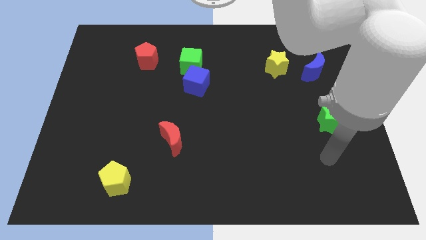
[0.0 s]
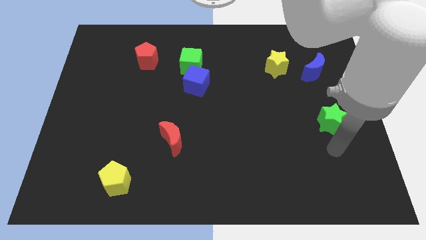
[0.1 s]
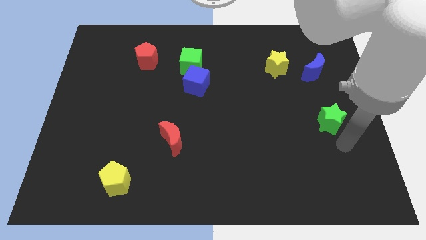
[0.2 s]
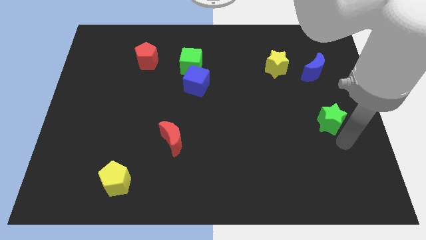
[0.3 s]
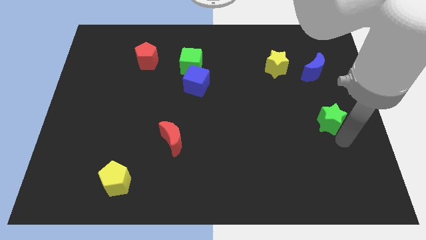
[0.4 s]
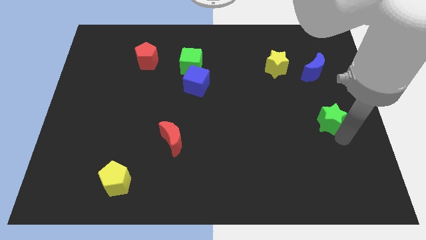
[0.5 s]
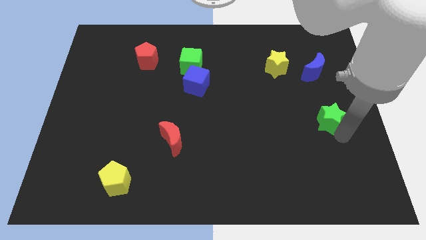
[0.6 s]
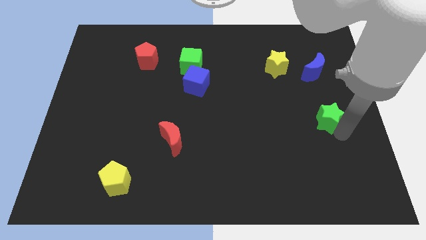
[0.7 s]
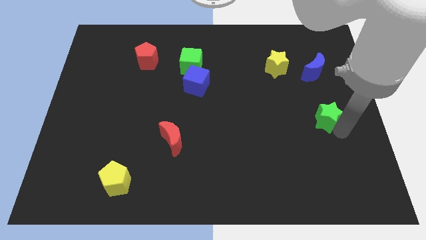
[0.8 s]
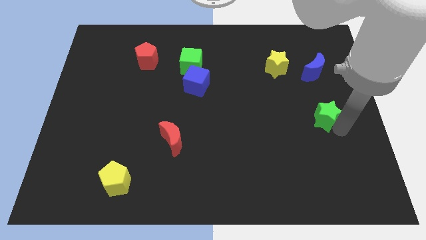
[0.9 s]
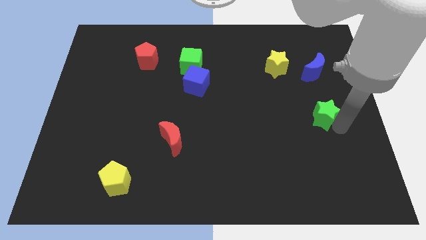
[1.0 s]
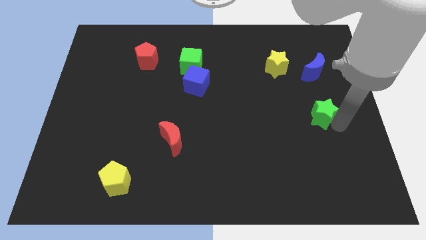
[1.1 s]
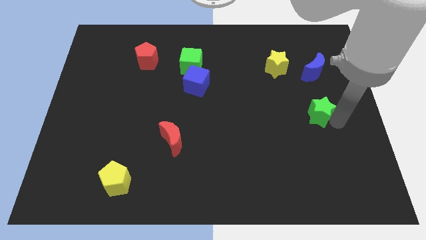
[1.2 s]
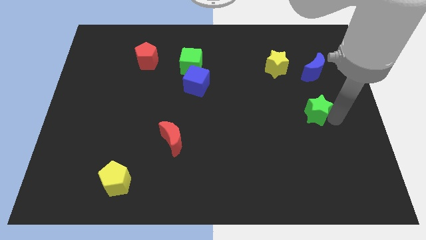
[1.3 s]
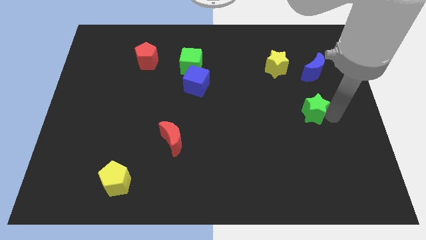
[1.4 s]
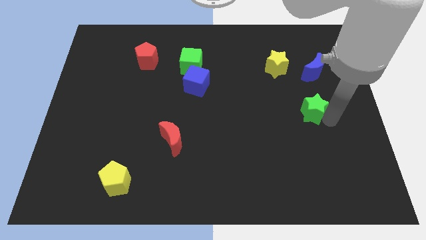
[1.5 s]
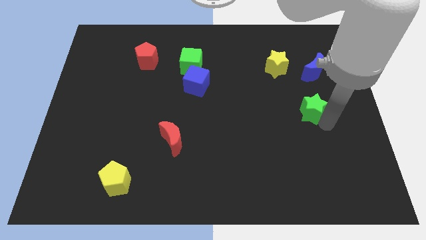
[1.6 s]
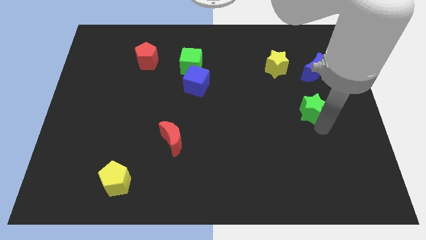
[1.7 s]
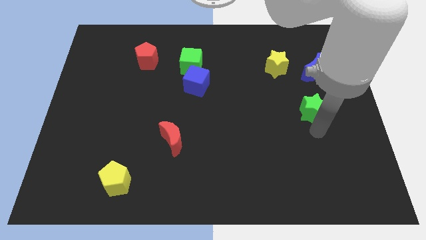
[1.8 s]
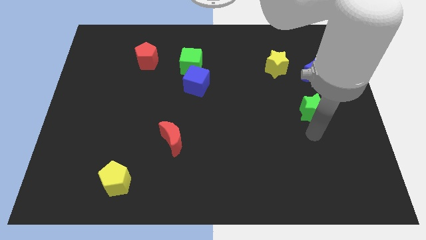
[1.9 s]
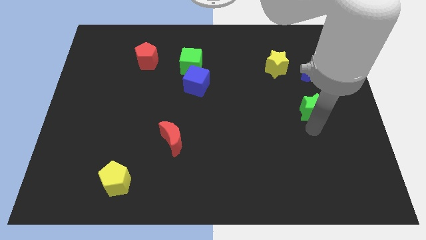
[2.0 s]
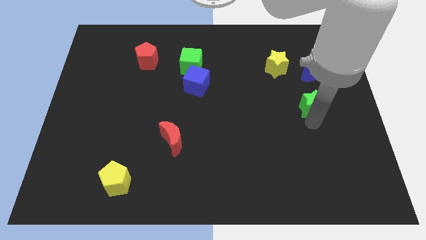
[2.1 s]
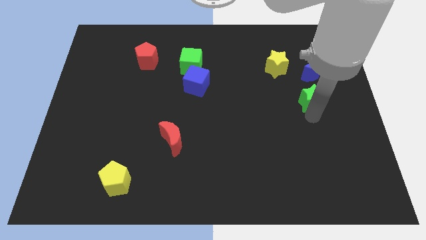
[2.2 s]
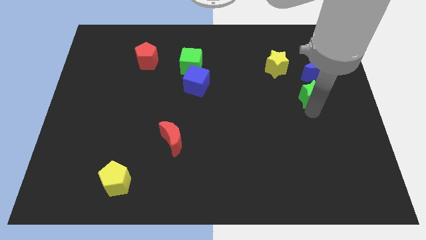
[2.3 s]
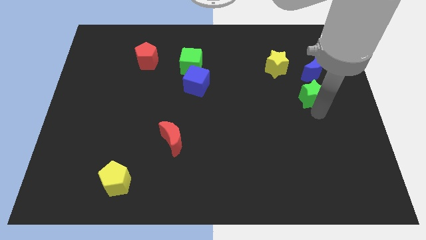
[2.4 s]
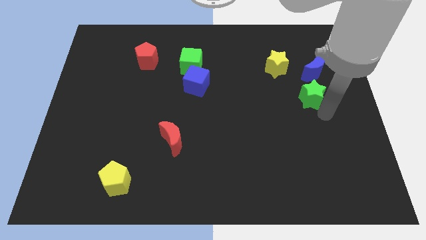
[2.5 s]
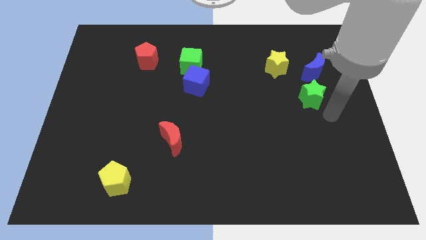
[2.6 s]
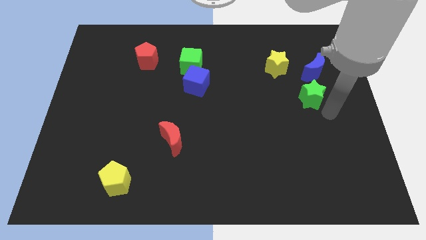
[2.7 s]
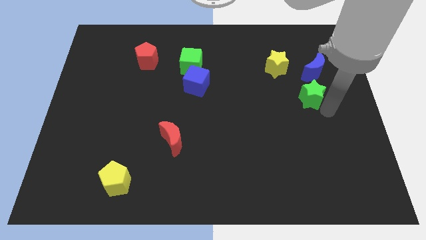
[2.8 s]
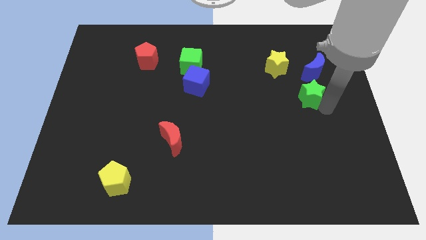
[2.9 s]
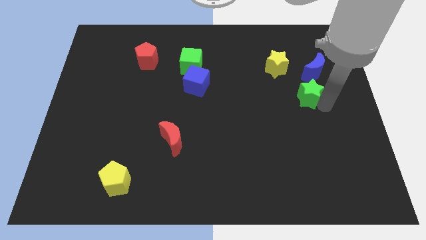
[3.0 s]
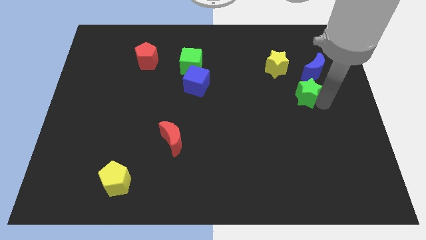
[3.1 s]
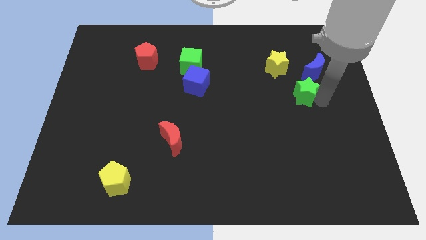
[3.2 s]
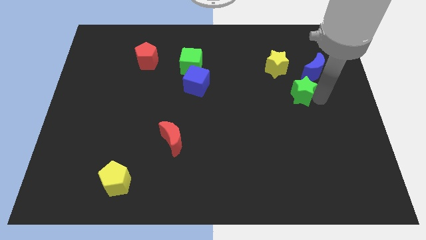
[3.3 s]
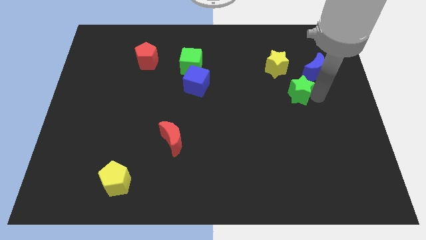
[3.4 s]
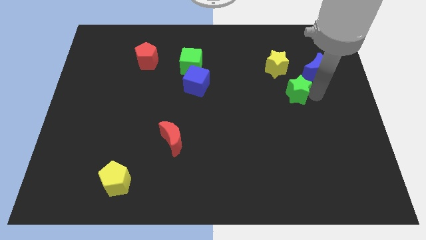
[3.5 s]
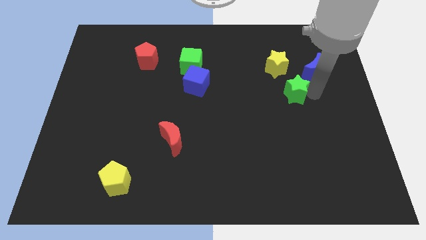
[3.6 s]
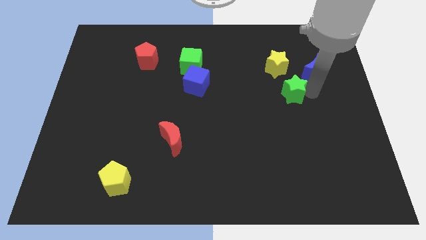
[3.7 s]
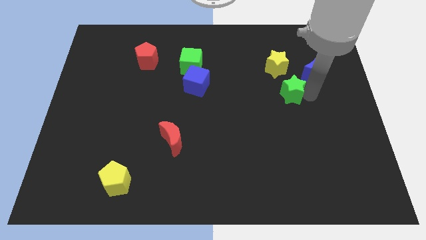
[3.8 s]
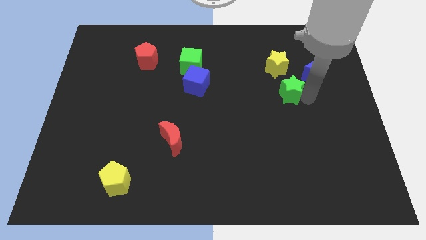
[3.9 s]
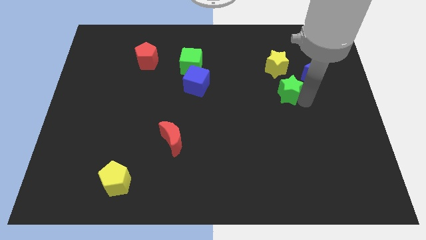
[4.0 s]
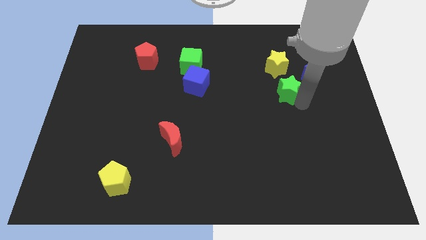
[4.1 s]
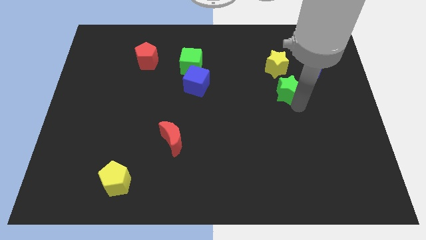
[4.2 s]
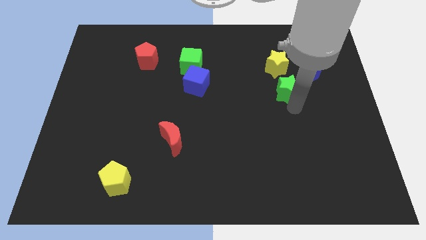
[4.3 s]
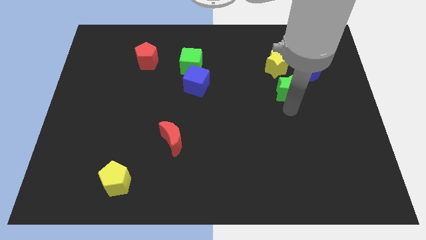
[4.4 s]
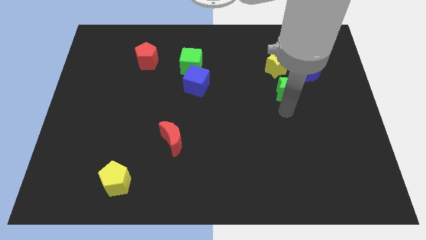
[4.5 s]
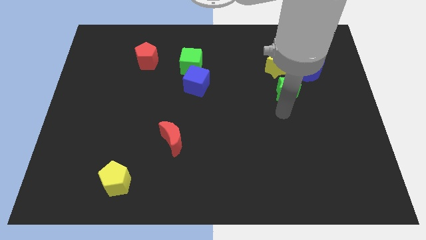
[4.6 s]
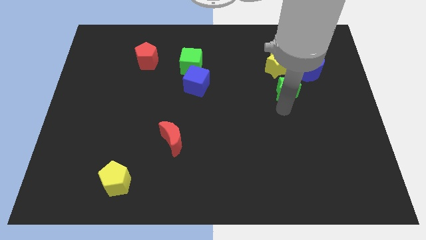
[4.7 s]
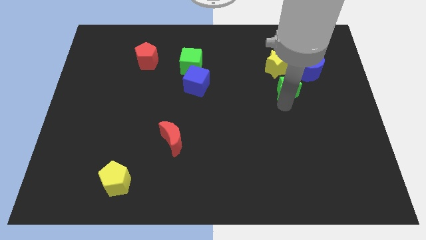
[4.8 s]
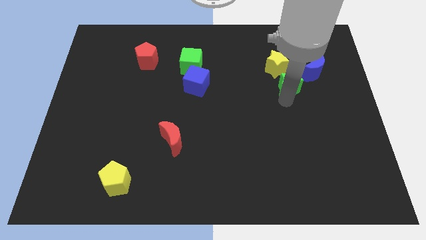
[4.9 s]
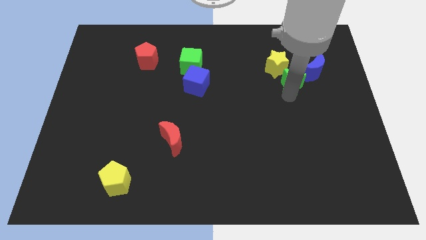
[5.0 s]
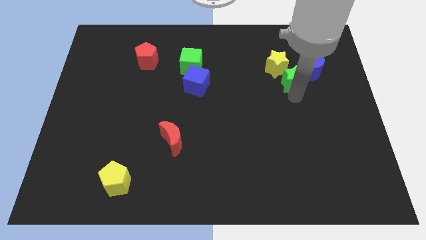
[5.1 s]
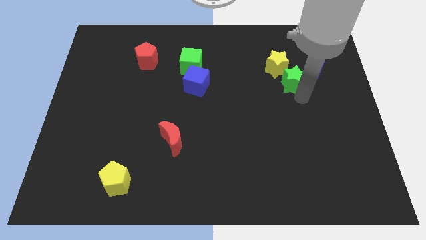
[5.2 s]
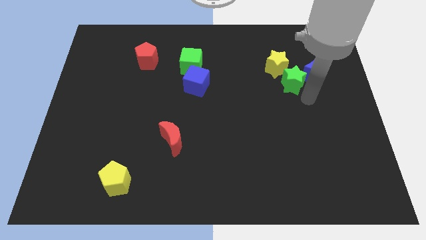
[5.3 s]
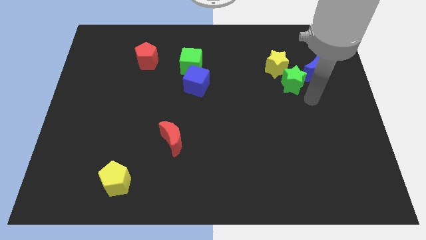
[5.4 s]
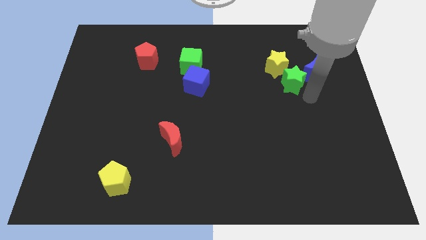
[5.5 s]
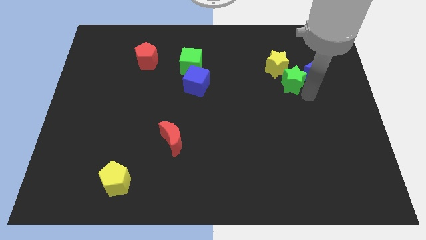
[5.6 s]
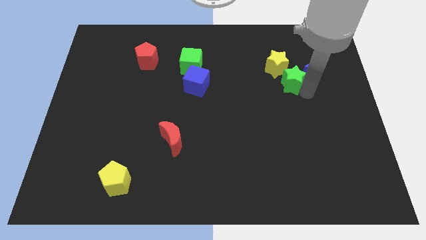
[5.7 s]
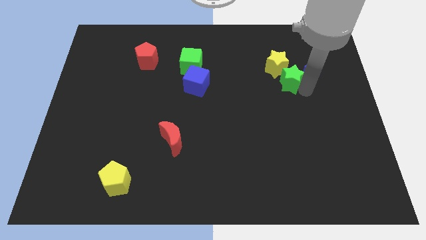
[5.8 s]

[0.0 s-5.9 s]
slide the green star close to the yellow star

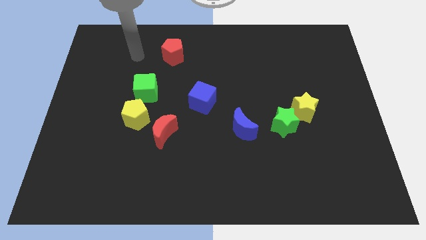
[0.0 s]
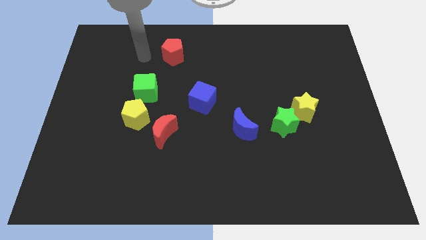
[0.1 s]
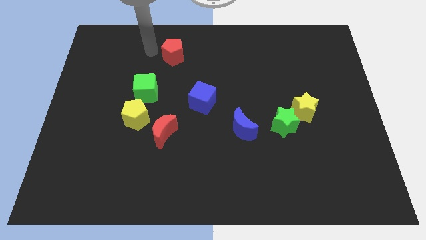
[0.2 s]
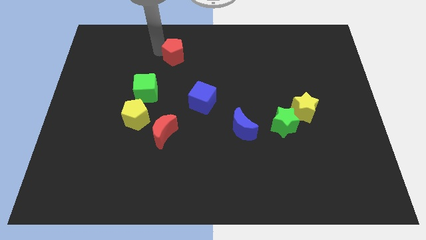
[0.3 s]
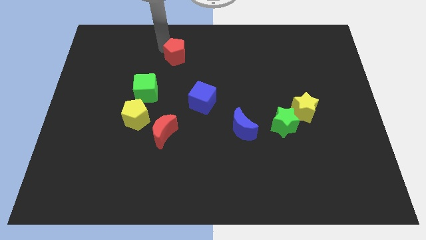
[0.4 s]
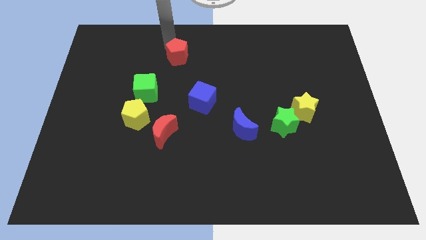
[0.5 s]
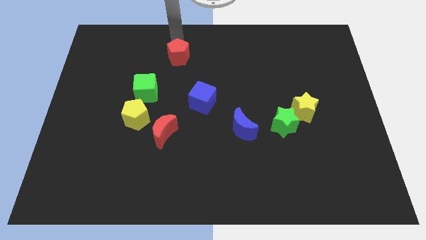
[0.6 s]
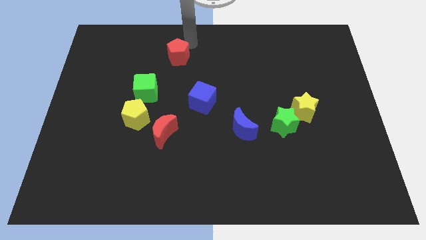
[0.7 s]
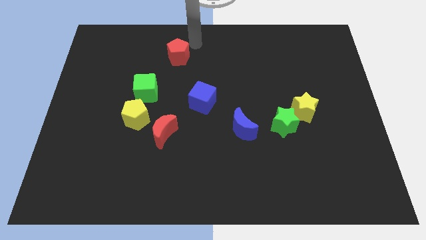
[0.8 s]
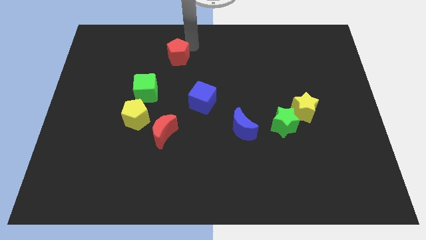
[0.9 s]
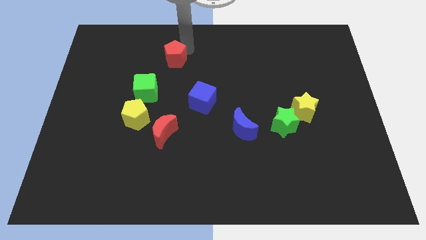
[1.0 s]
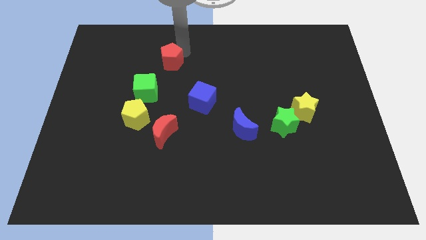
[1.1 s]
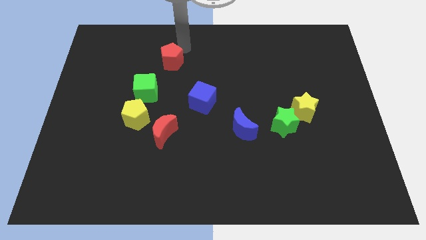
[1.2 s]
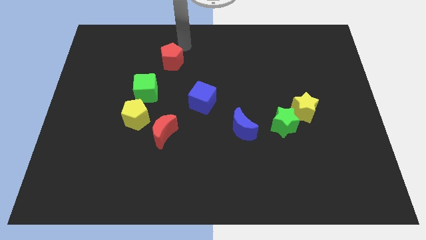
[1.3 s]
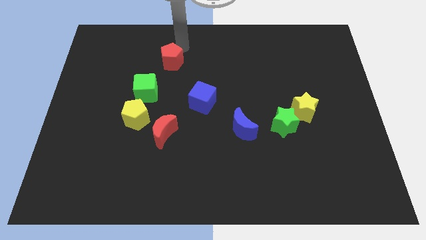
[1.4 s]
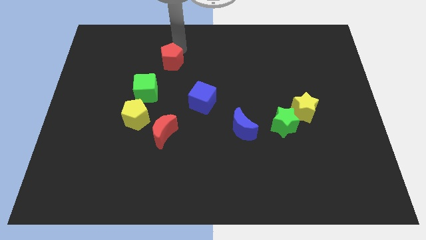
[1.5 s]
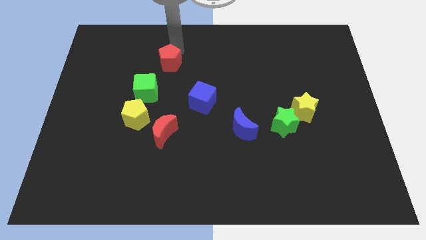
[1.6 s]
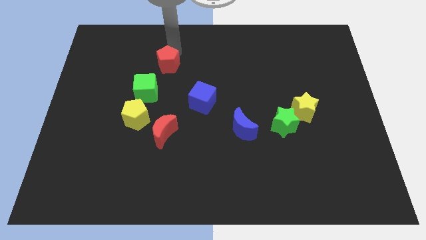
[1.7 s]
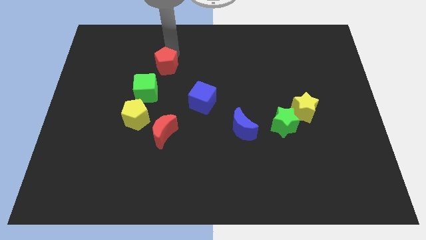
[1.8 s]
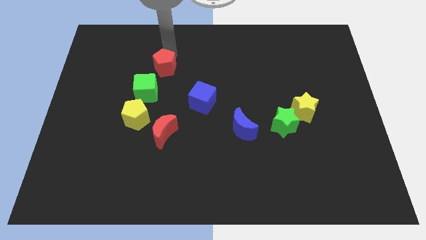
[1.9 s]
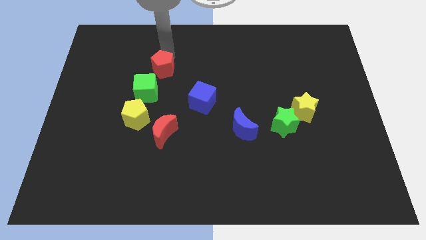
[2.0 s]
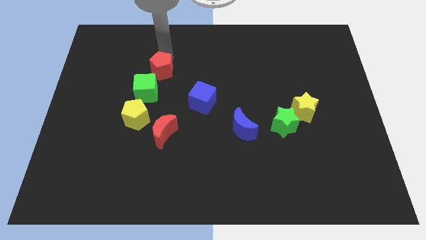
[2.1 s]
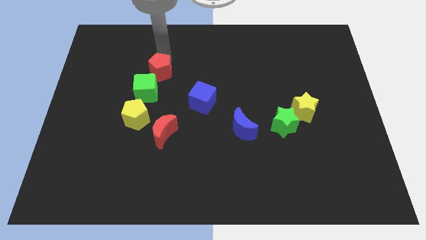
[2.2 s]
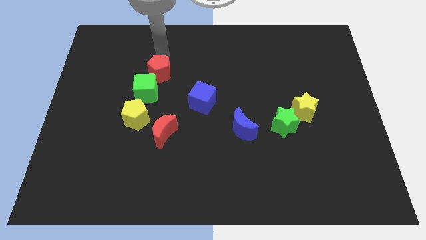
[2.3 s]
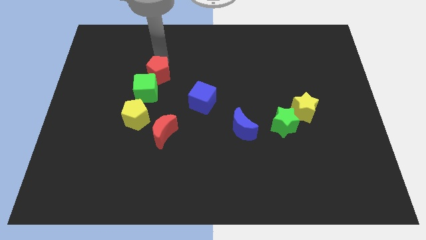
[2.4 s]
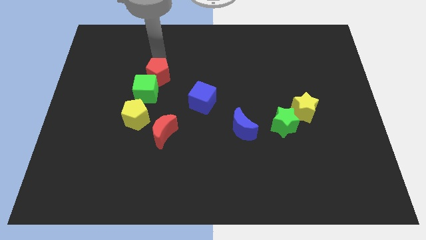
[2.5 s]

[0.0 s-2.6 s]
slide the red pentagon close to the green cube
